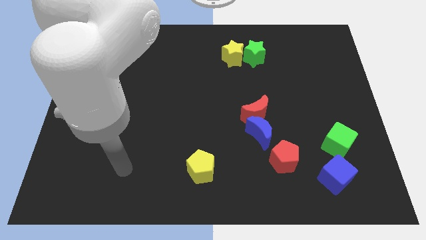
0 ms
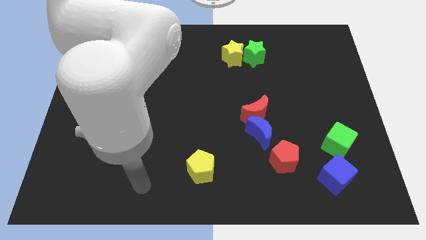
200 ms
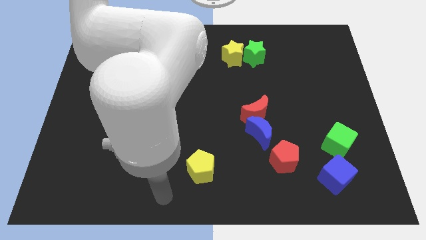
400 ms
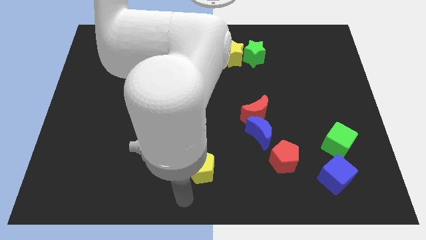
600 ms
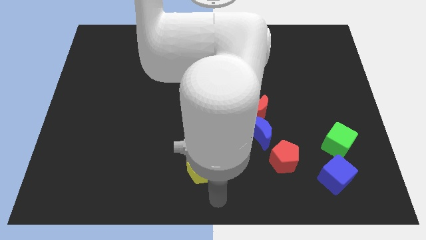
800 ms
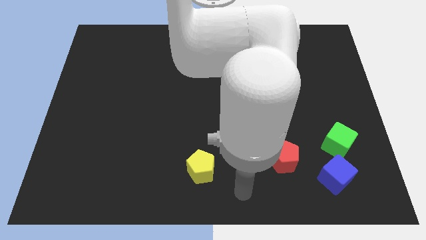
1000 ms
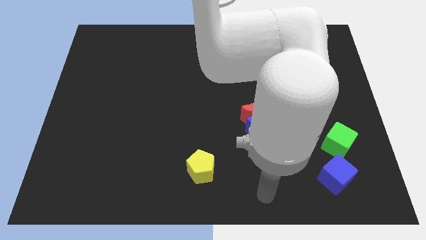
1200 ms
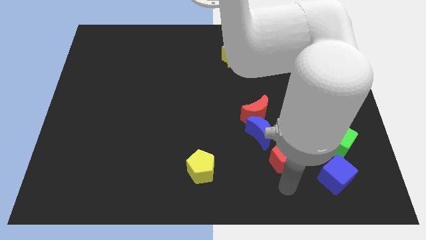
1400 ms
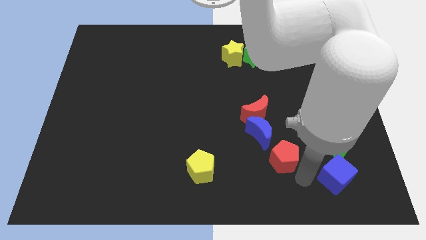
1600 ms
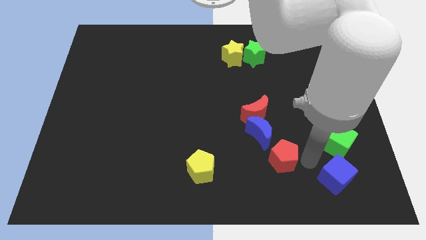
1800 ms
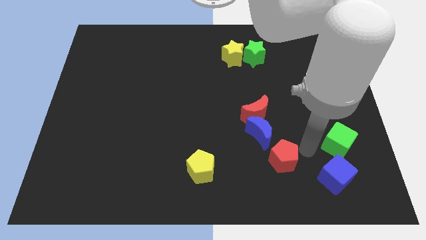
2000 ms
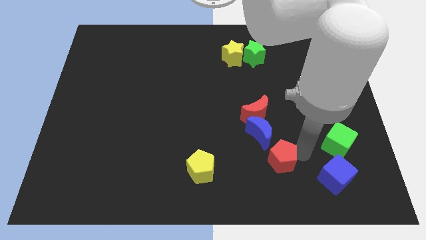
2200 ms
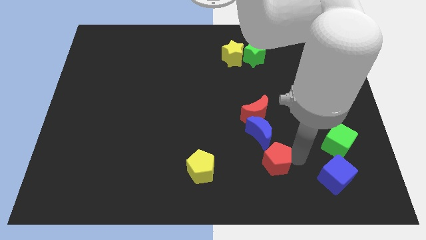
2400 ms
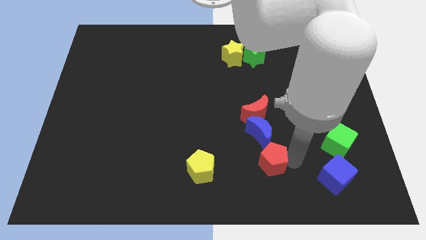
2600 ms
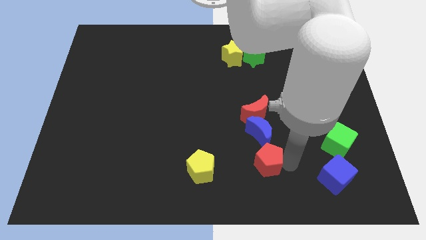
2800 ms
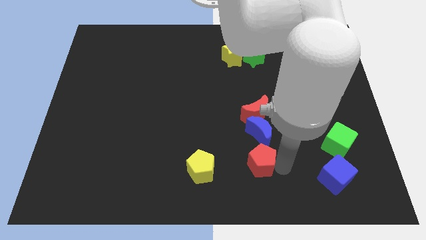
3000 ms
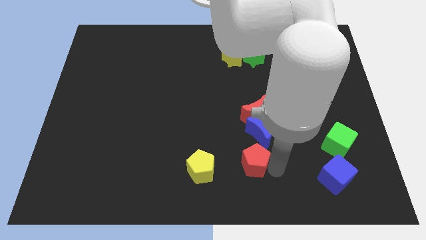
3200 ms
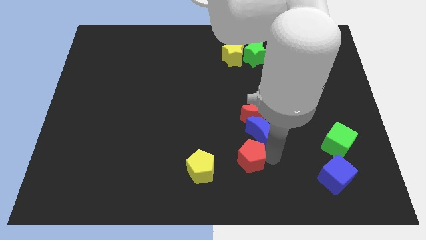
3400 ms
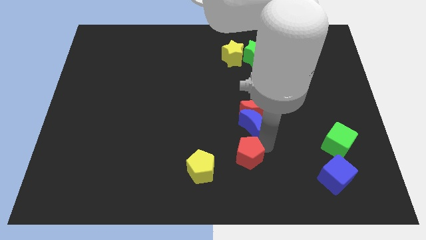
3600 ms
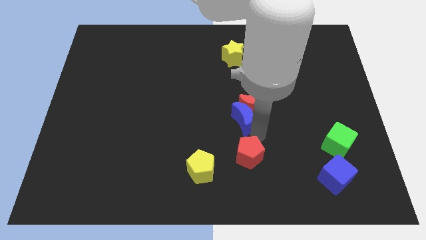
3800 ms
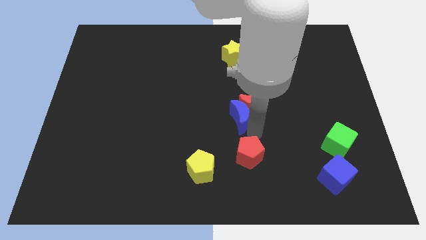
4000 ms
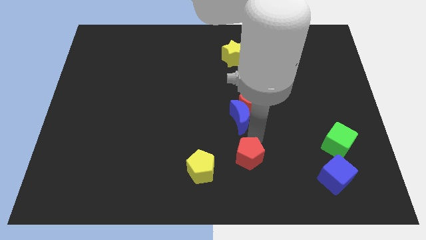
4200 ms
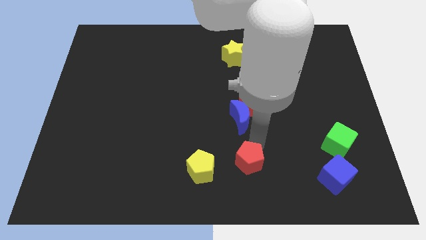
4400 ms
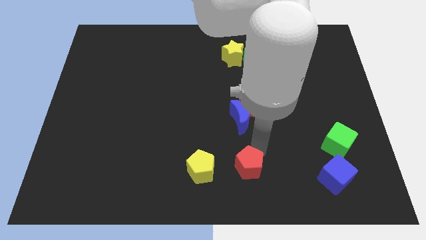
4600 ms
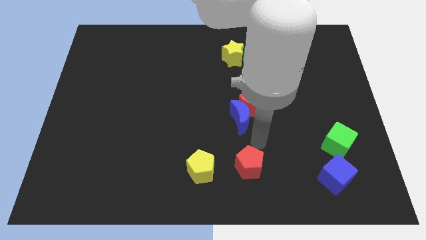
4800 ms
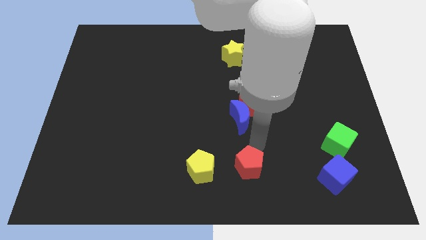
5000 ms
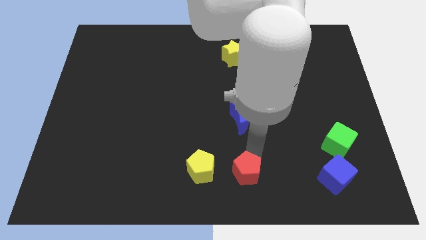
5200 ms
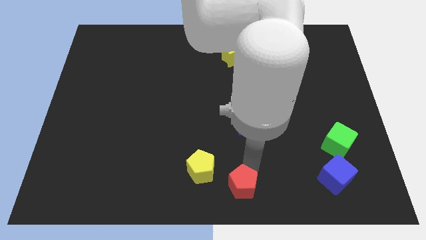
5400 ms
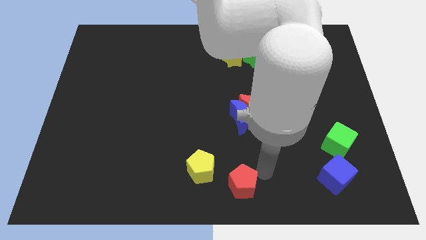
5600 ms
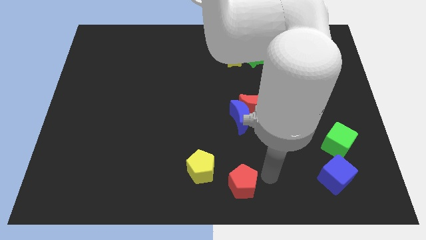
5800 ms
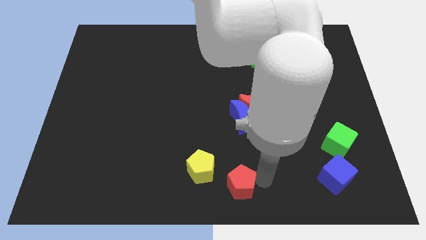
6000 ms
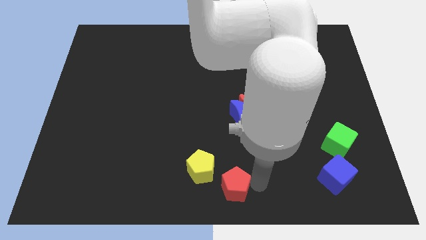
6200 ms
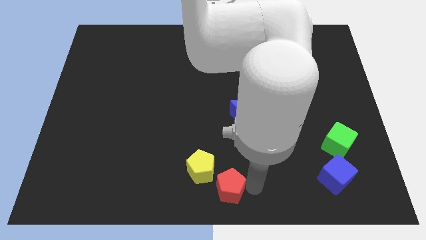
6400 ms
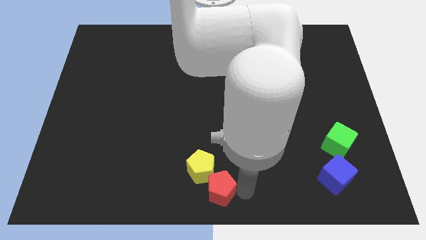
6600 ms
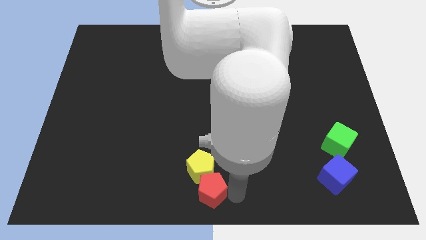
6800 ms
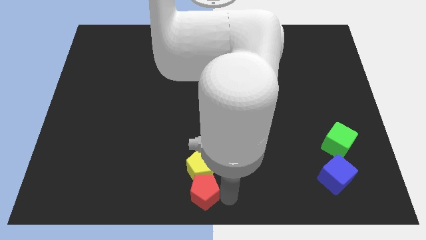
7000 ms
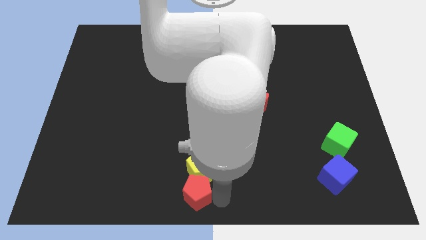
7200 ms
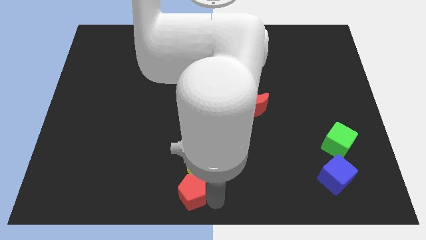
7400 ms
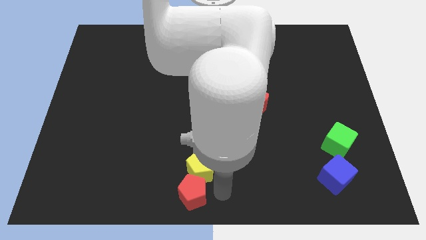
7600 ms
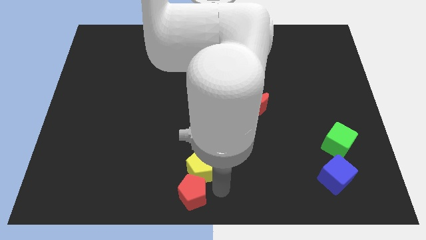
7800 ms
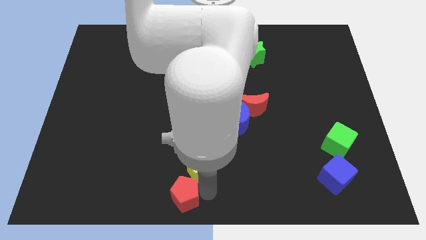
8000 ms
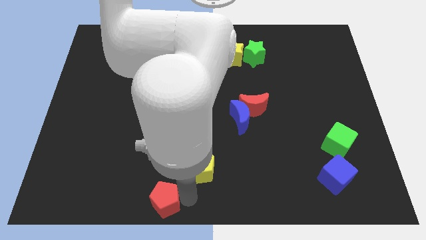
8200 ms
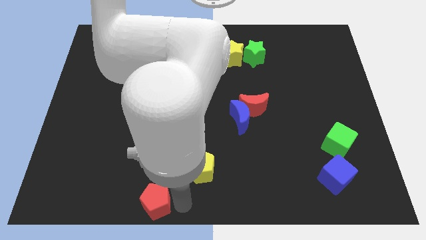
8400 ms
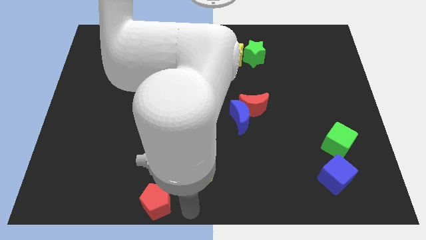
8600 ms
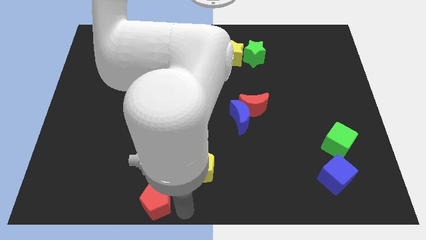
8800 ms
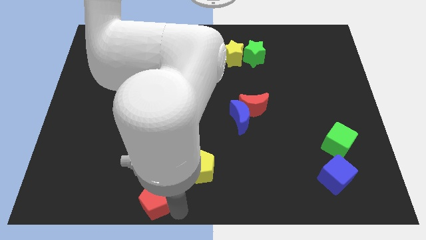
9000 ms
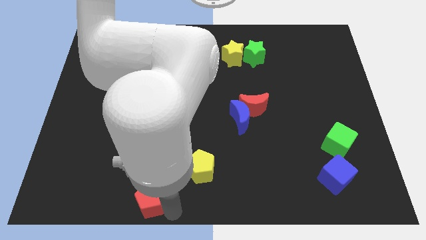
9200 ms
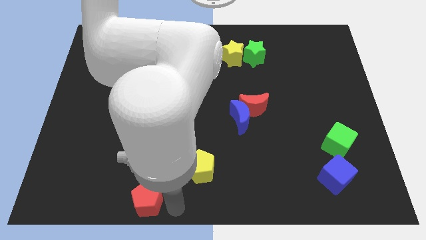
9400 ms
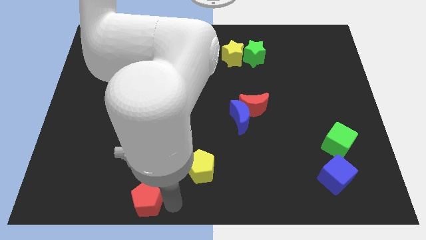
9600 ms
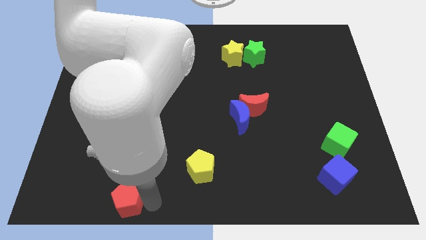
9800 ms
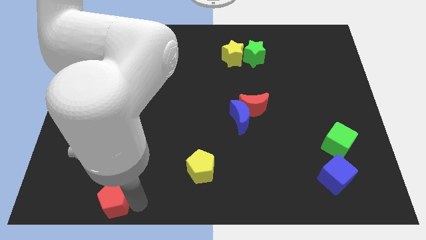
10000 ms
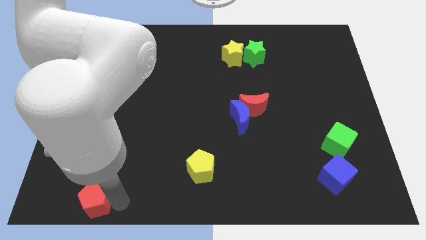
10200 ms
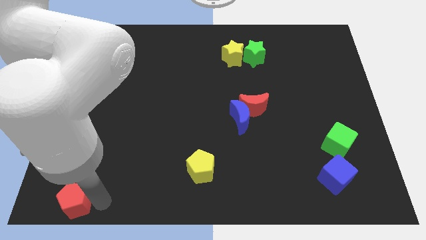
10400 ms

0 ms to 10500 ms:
slide the red pentagon to the bottom left of the board

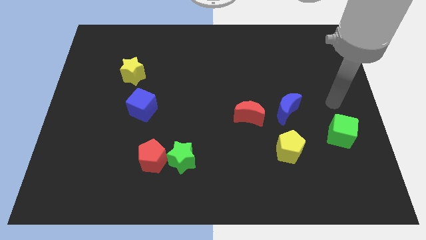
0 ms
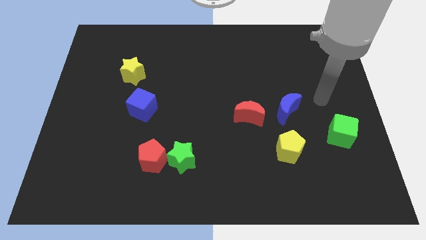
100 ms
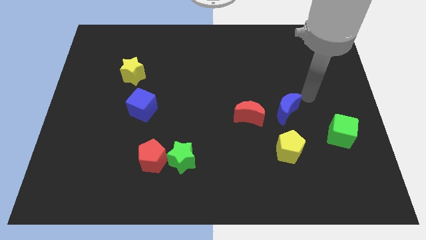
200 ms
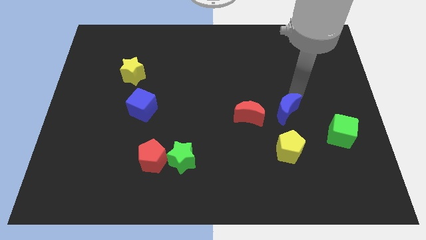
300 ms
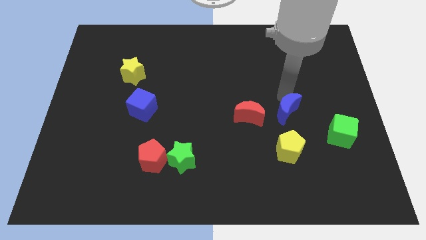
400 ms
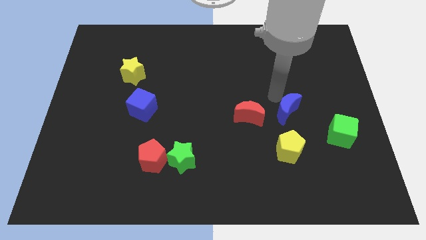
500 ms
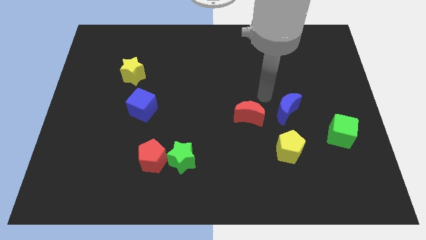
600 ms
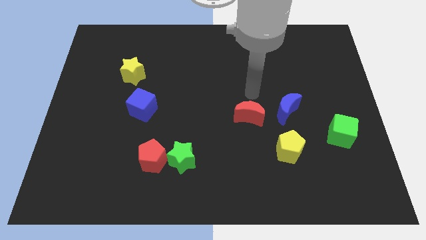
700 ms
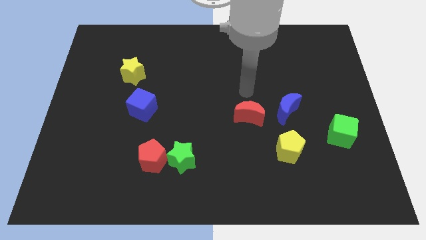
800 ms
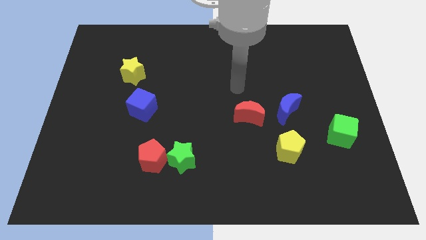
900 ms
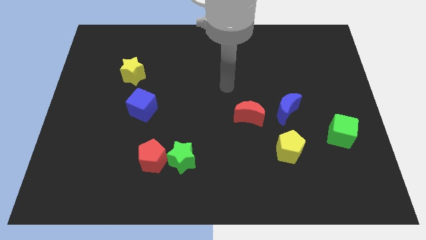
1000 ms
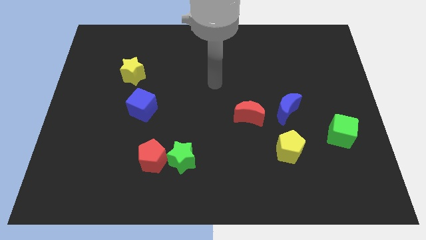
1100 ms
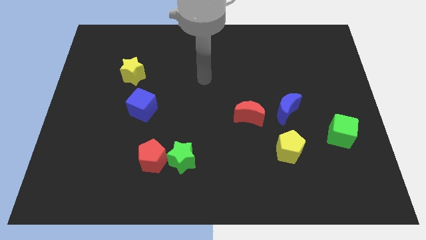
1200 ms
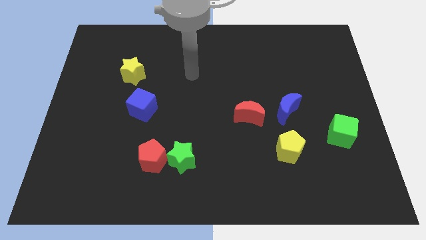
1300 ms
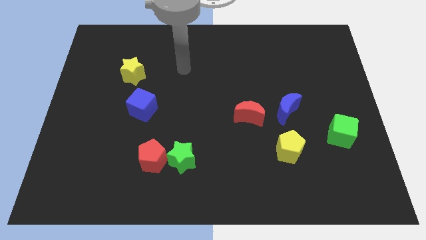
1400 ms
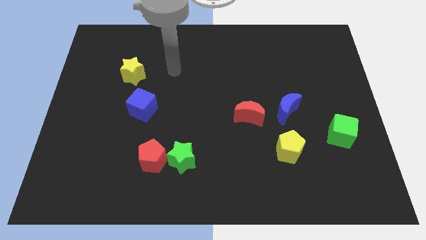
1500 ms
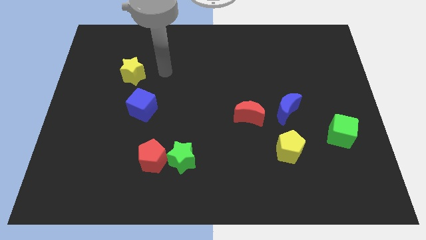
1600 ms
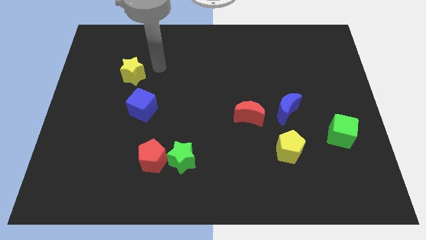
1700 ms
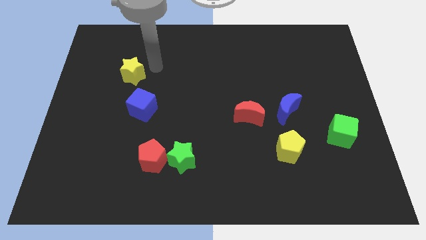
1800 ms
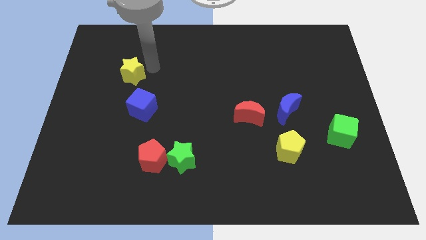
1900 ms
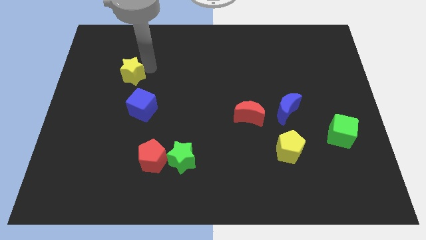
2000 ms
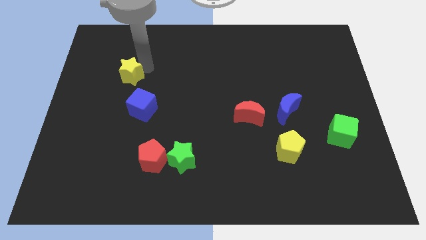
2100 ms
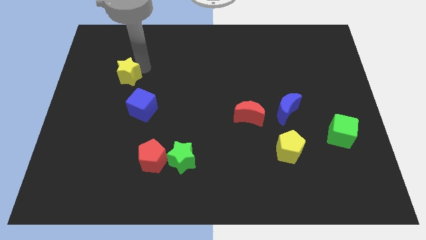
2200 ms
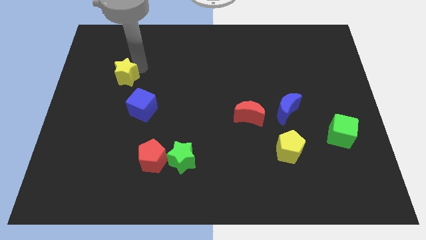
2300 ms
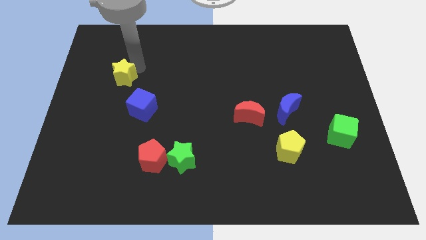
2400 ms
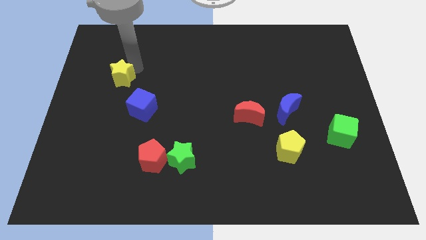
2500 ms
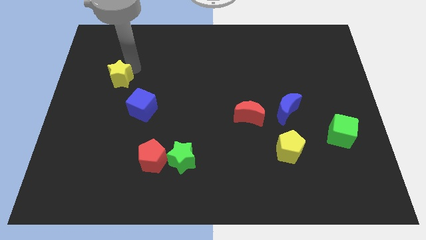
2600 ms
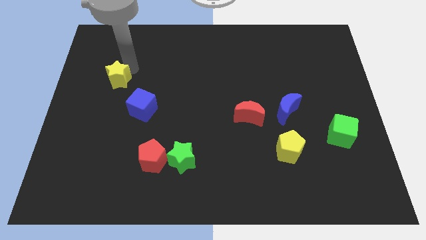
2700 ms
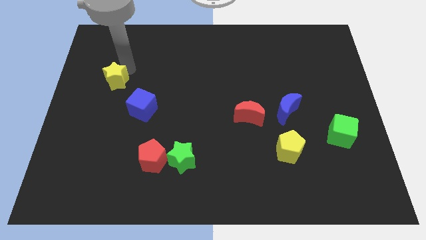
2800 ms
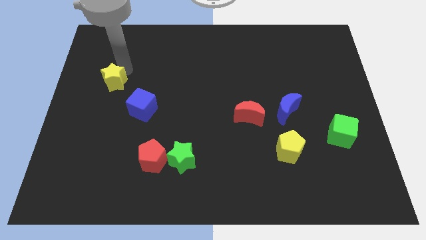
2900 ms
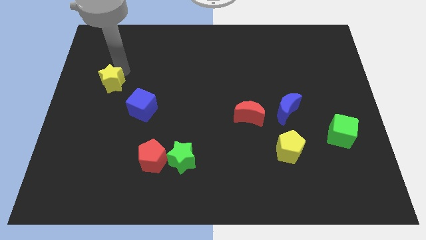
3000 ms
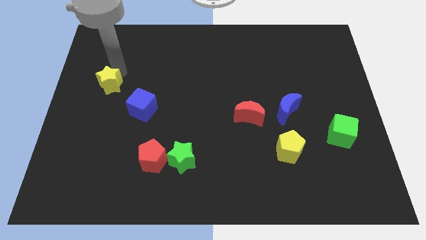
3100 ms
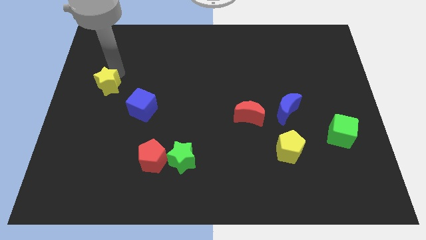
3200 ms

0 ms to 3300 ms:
put the yellow star to the left side of the board
